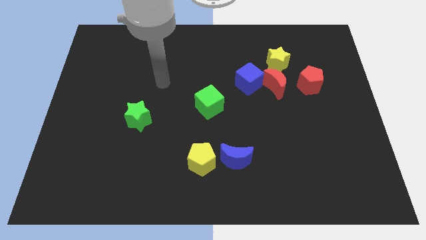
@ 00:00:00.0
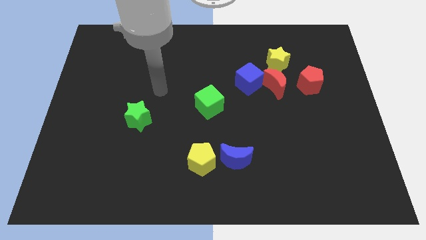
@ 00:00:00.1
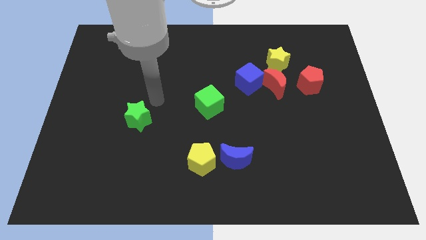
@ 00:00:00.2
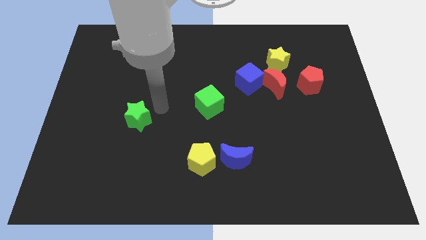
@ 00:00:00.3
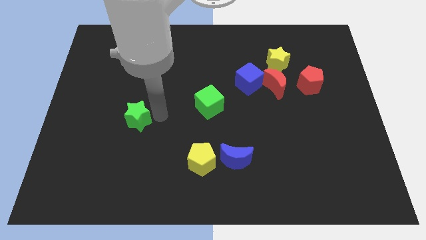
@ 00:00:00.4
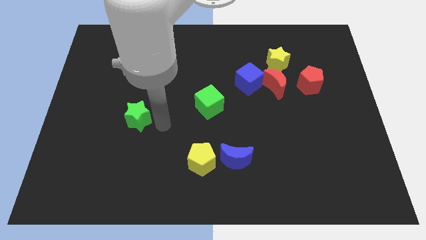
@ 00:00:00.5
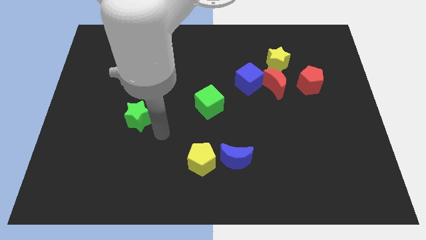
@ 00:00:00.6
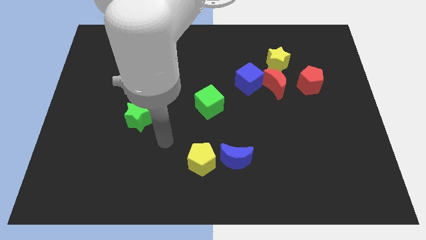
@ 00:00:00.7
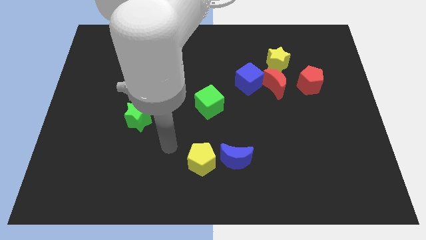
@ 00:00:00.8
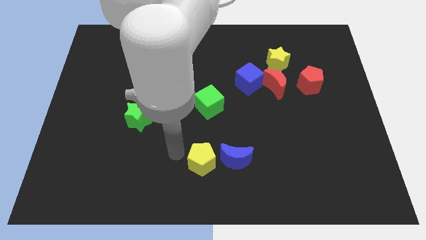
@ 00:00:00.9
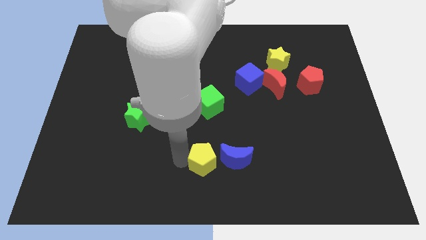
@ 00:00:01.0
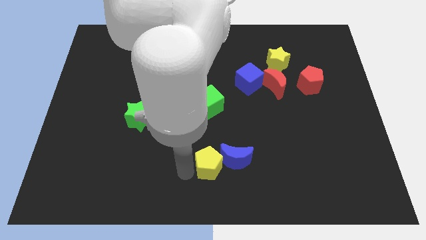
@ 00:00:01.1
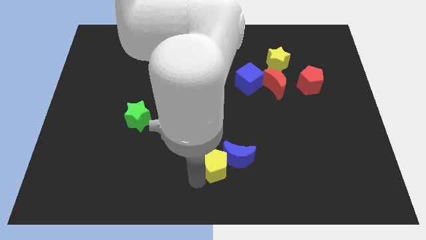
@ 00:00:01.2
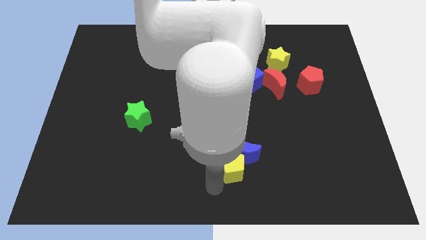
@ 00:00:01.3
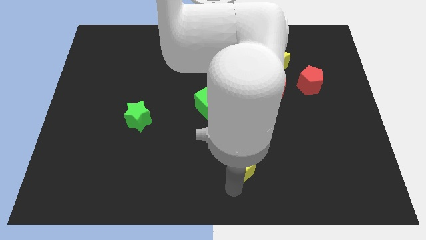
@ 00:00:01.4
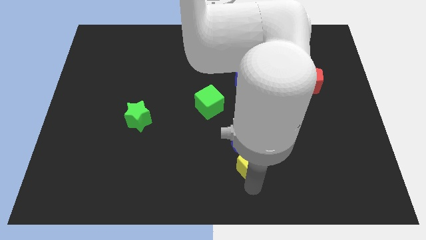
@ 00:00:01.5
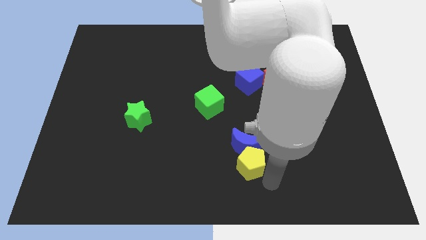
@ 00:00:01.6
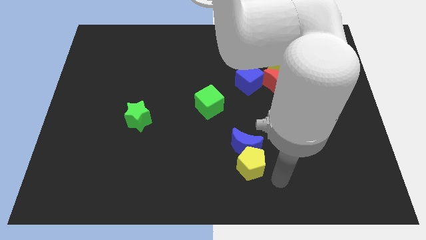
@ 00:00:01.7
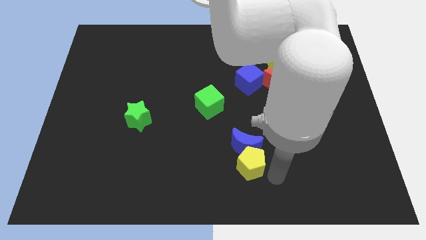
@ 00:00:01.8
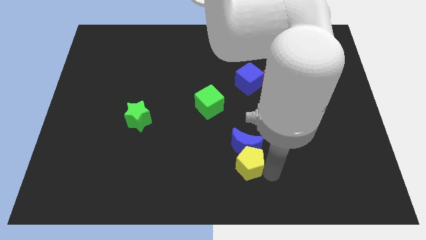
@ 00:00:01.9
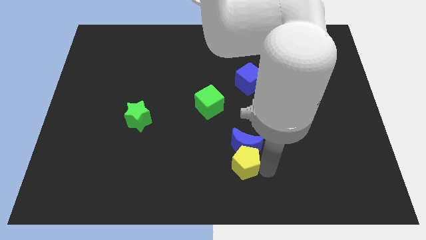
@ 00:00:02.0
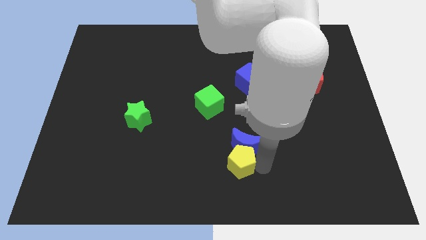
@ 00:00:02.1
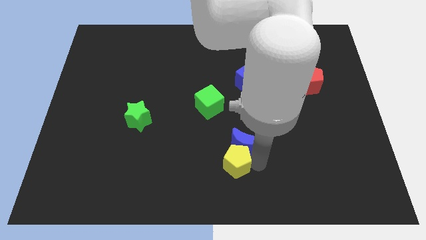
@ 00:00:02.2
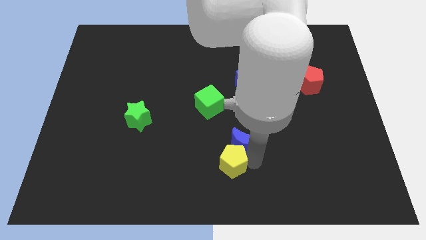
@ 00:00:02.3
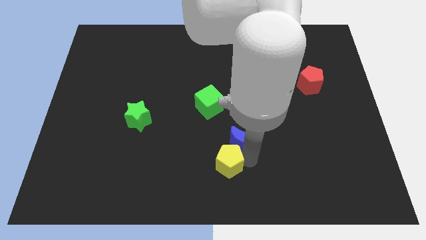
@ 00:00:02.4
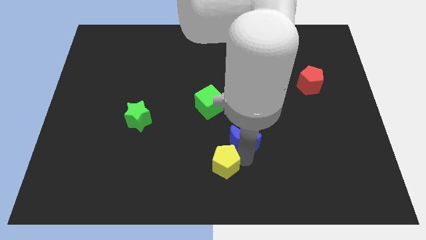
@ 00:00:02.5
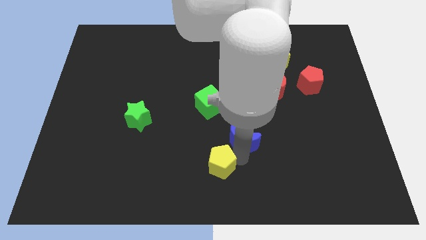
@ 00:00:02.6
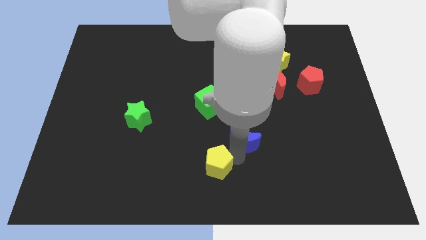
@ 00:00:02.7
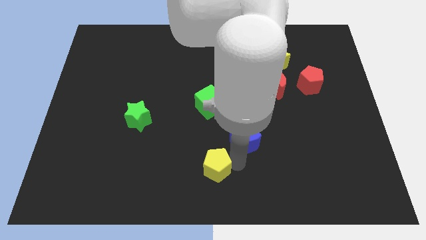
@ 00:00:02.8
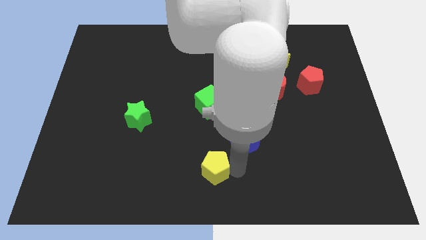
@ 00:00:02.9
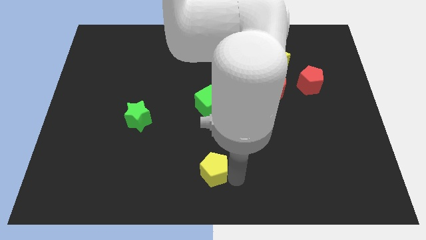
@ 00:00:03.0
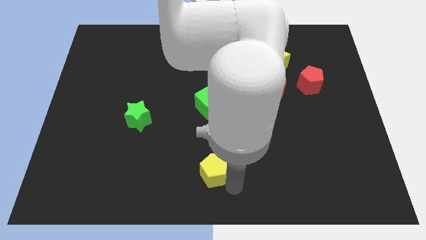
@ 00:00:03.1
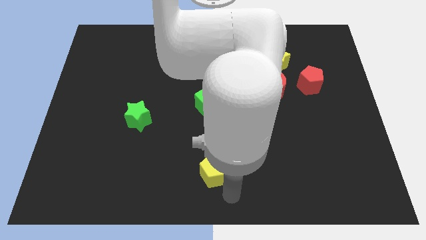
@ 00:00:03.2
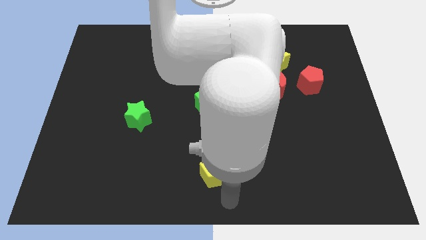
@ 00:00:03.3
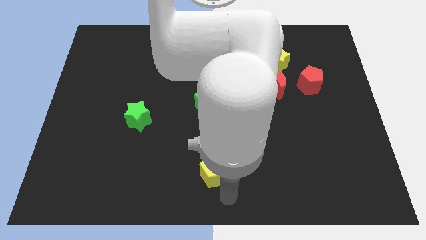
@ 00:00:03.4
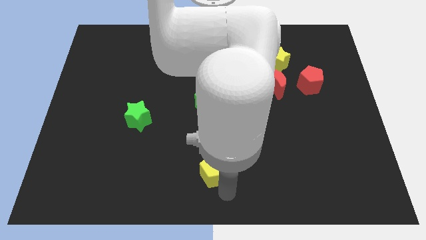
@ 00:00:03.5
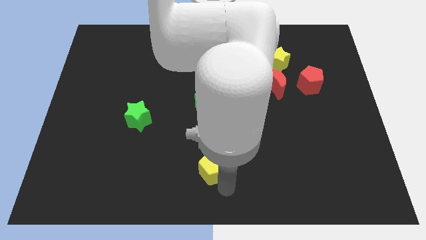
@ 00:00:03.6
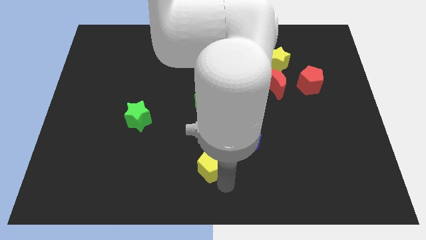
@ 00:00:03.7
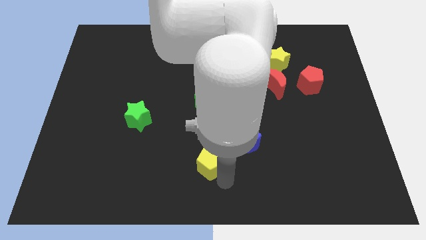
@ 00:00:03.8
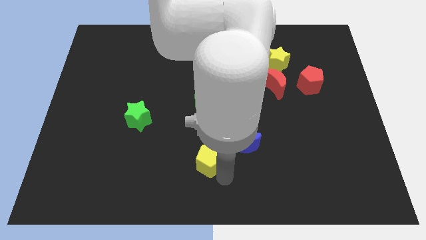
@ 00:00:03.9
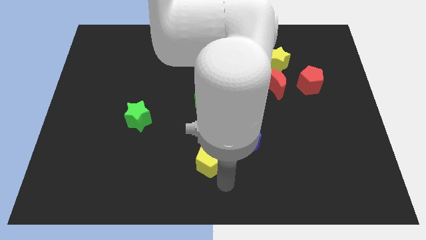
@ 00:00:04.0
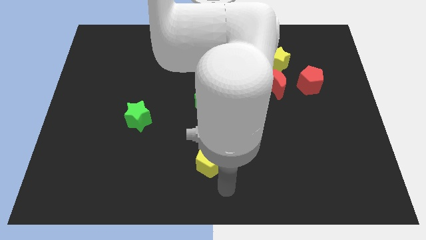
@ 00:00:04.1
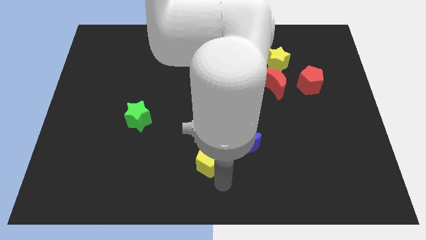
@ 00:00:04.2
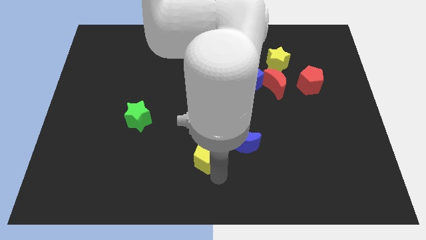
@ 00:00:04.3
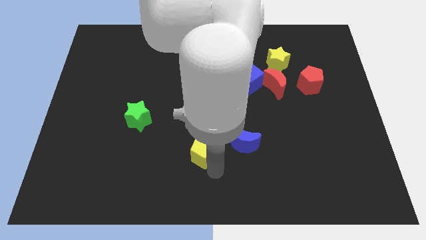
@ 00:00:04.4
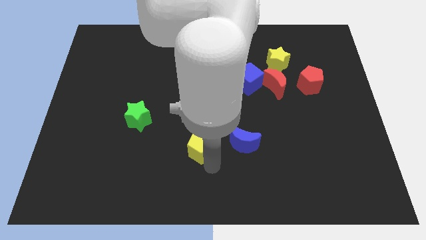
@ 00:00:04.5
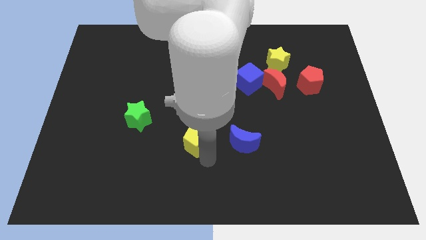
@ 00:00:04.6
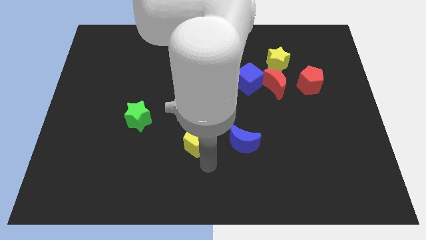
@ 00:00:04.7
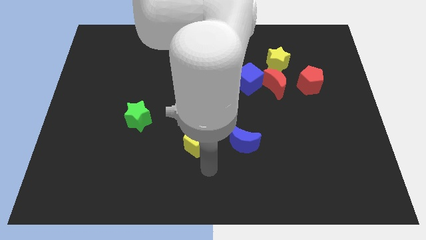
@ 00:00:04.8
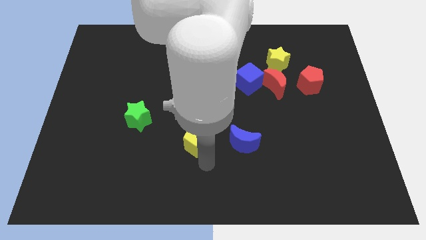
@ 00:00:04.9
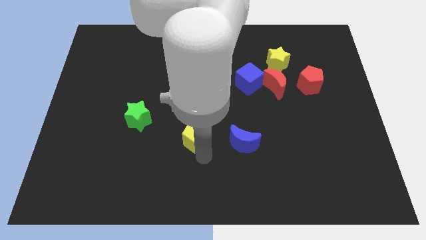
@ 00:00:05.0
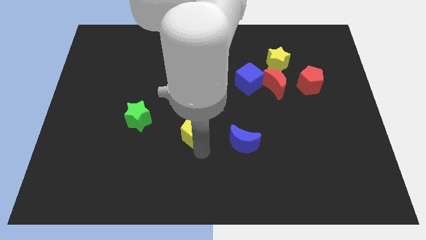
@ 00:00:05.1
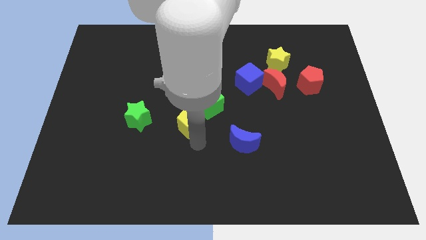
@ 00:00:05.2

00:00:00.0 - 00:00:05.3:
slightly move the yellow pentagon up

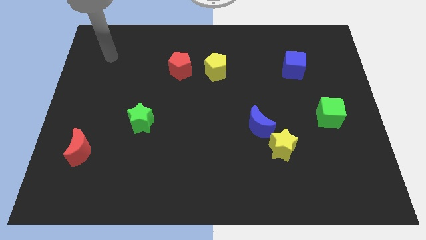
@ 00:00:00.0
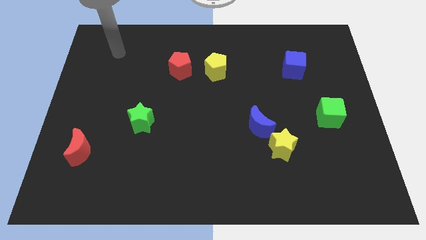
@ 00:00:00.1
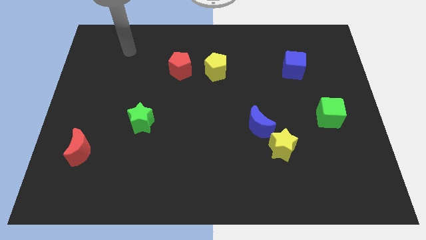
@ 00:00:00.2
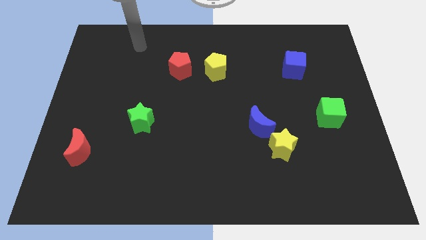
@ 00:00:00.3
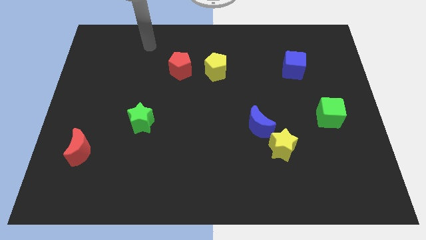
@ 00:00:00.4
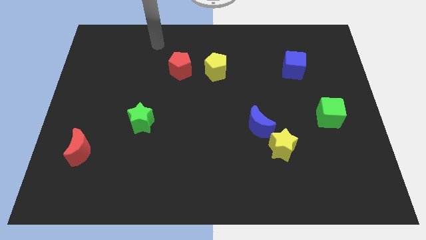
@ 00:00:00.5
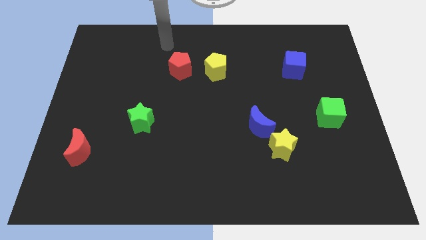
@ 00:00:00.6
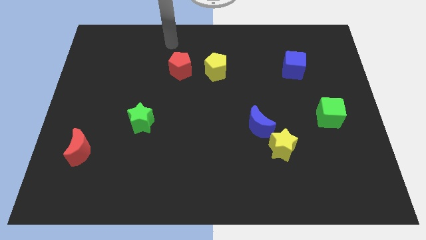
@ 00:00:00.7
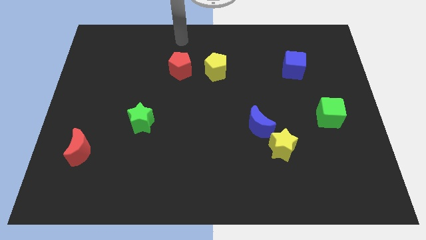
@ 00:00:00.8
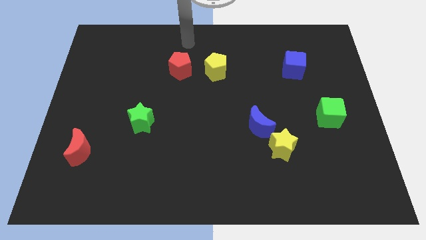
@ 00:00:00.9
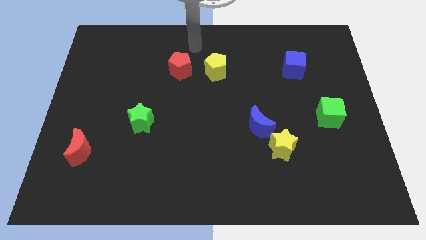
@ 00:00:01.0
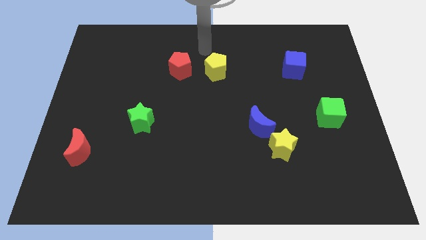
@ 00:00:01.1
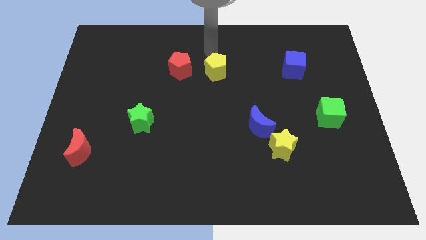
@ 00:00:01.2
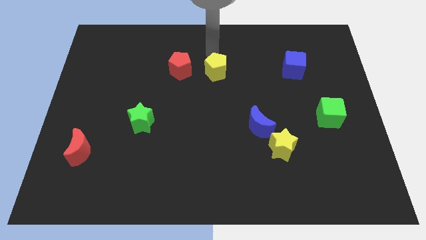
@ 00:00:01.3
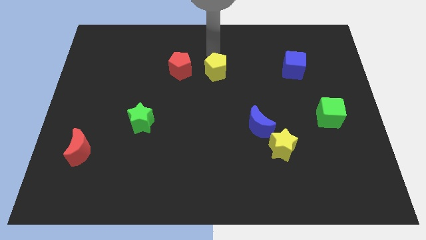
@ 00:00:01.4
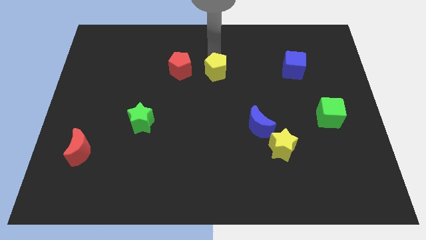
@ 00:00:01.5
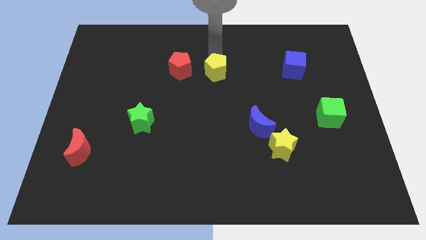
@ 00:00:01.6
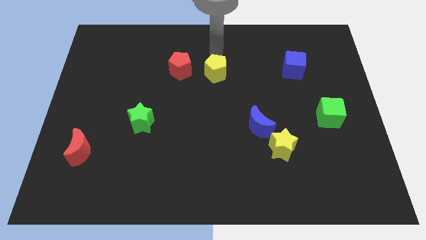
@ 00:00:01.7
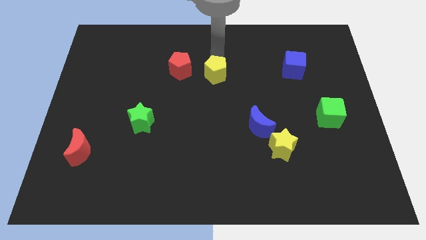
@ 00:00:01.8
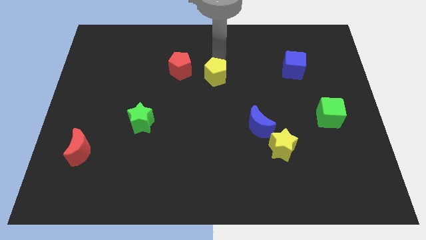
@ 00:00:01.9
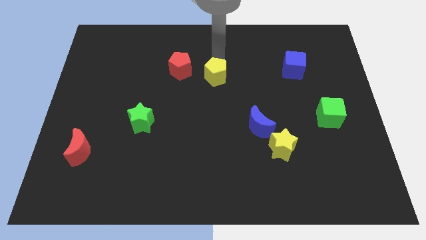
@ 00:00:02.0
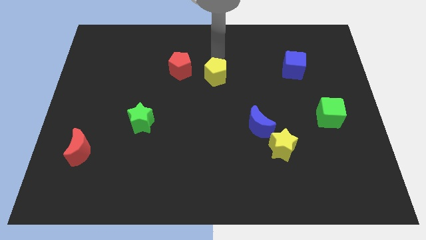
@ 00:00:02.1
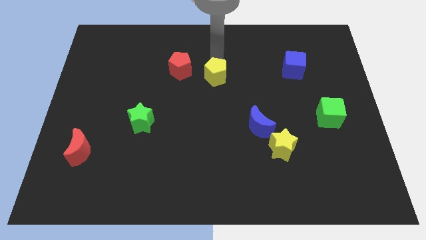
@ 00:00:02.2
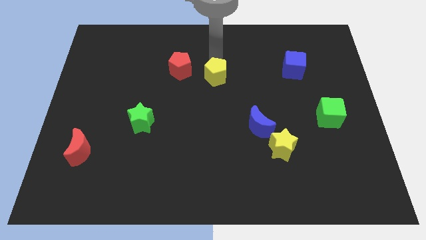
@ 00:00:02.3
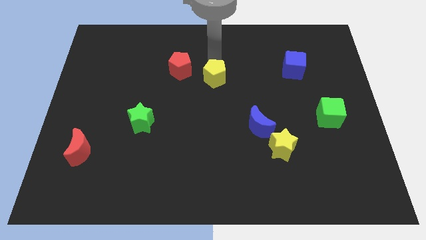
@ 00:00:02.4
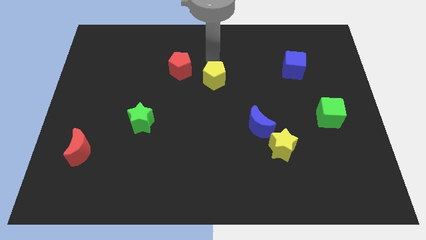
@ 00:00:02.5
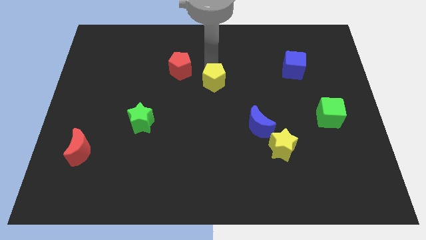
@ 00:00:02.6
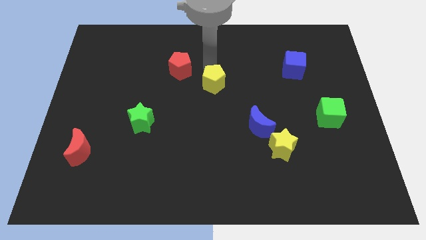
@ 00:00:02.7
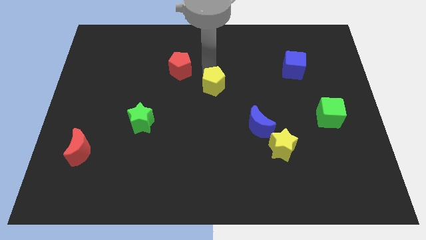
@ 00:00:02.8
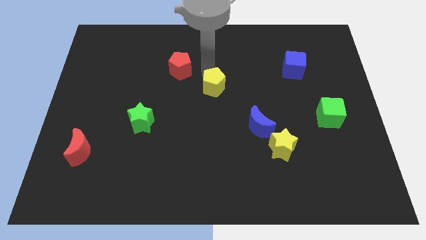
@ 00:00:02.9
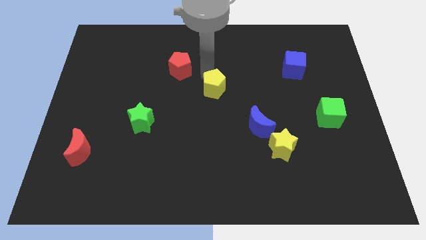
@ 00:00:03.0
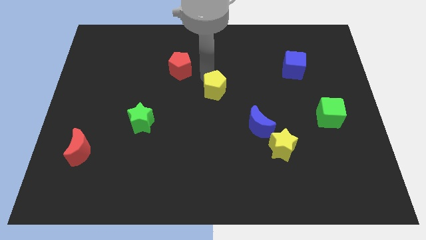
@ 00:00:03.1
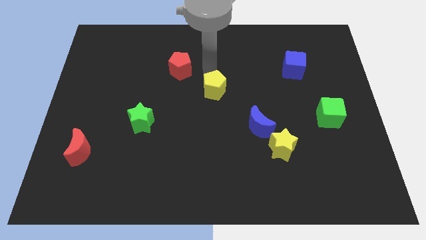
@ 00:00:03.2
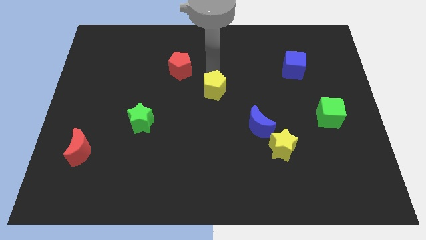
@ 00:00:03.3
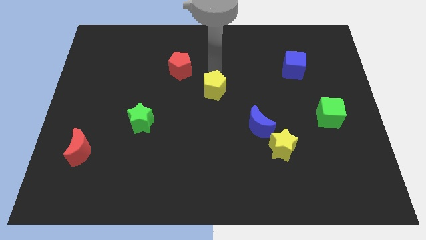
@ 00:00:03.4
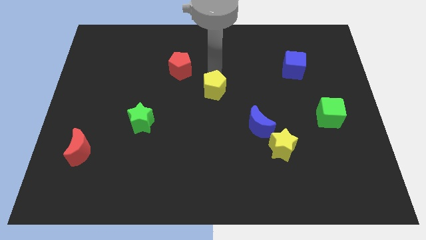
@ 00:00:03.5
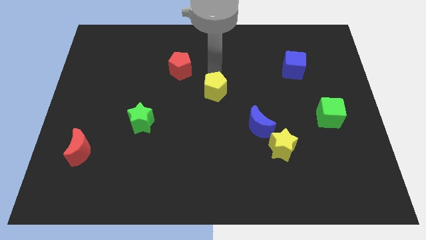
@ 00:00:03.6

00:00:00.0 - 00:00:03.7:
slightly push the yellow pentagon down
